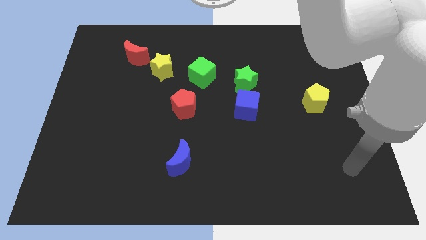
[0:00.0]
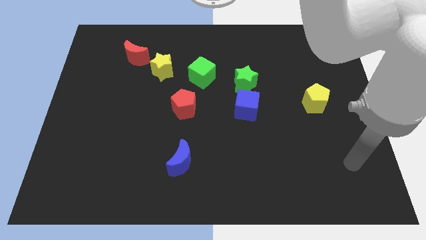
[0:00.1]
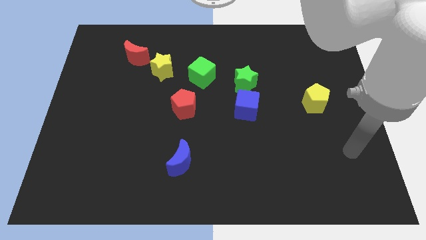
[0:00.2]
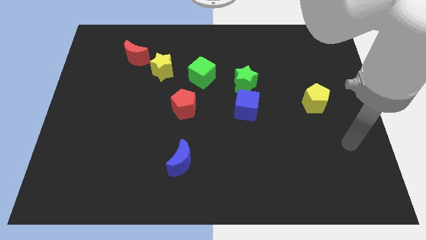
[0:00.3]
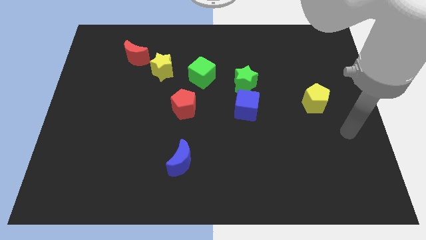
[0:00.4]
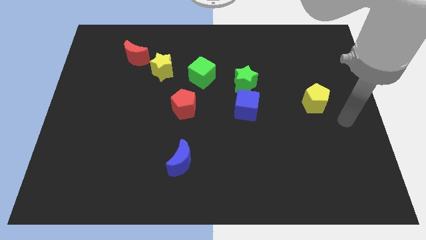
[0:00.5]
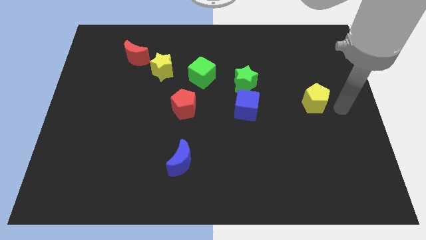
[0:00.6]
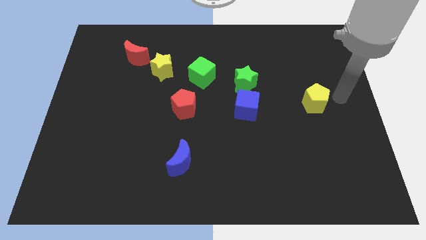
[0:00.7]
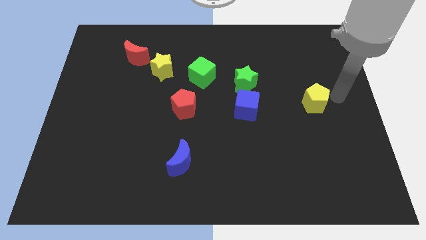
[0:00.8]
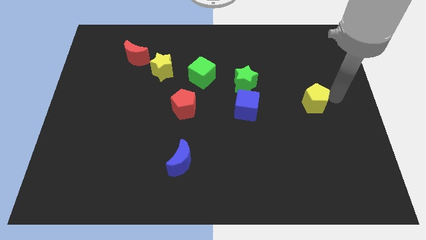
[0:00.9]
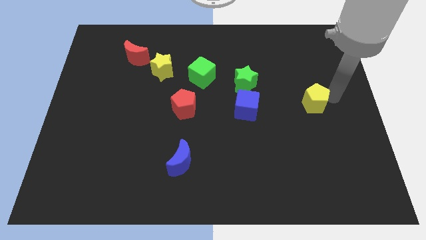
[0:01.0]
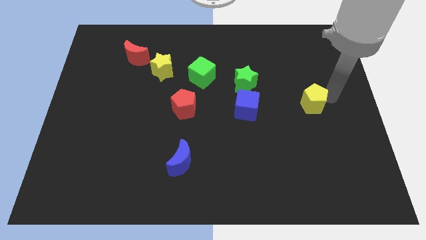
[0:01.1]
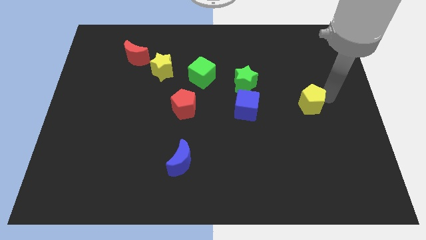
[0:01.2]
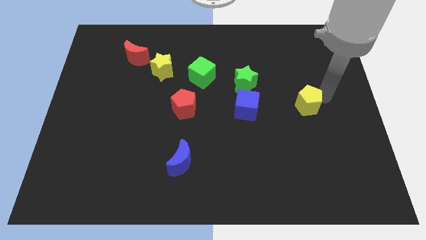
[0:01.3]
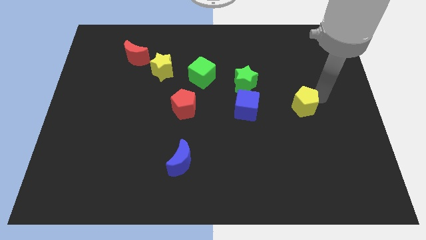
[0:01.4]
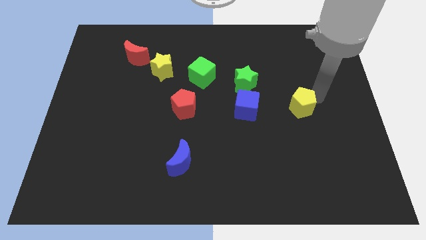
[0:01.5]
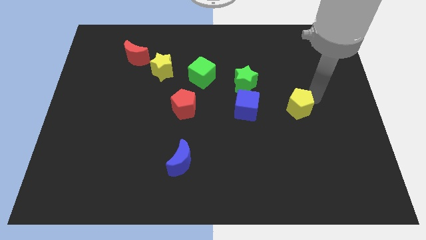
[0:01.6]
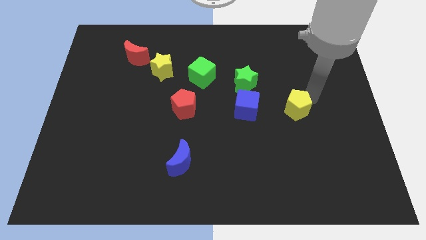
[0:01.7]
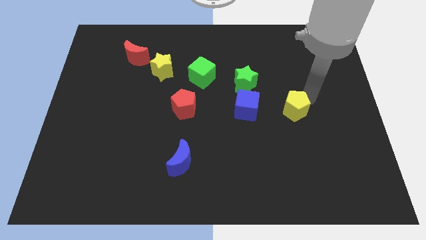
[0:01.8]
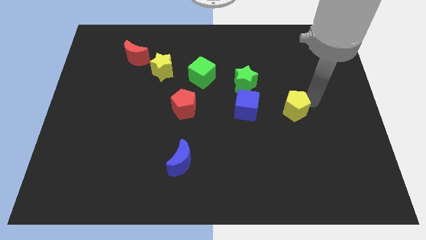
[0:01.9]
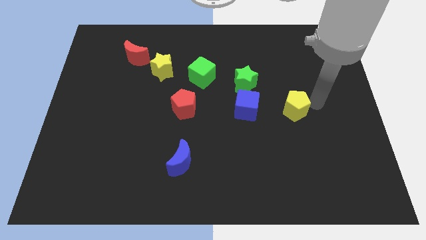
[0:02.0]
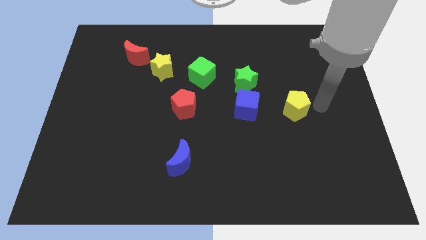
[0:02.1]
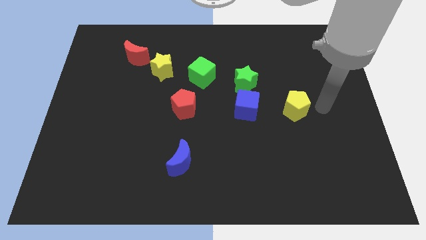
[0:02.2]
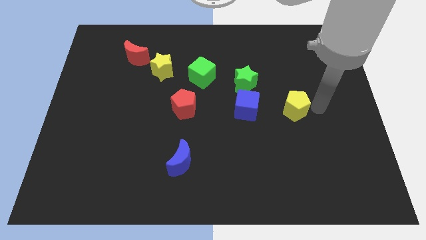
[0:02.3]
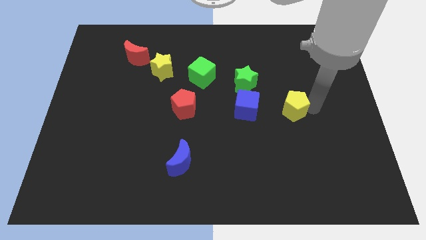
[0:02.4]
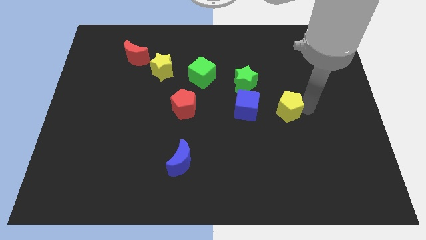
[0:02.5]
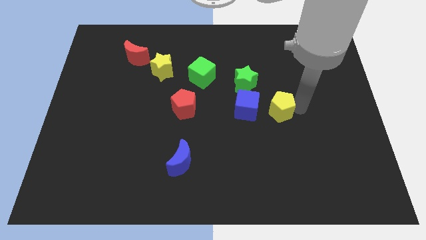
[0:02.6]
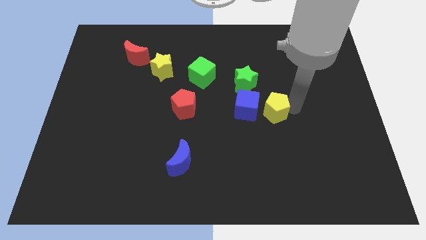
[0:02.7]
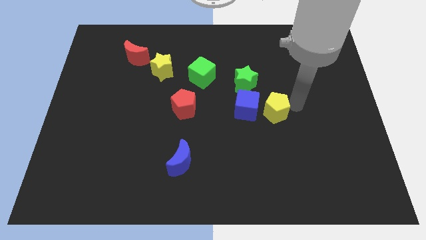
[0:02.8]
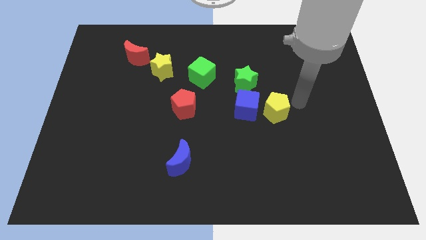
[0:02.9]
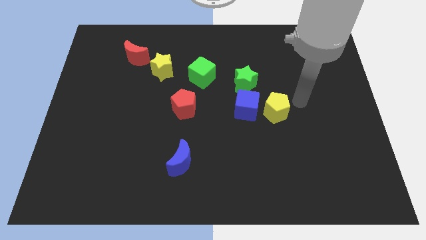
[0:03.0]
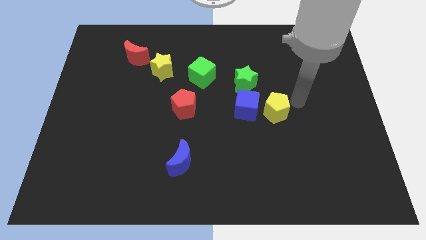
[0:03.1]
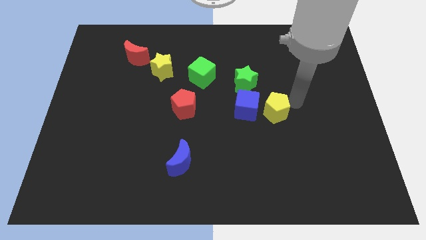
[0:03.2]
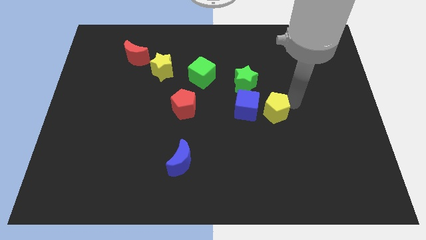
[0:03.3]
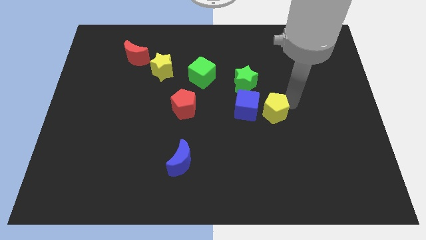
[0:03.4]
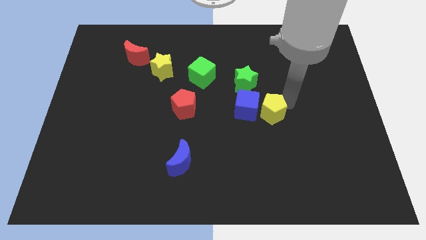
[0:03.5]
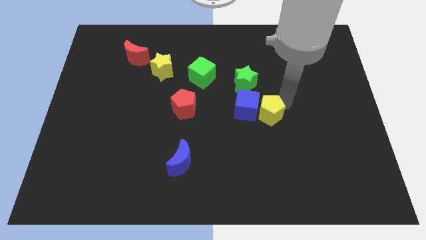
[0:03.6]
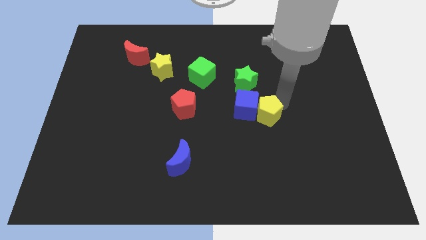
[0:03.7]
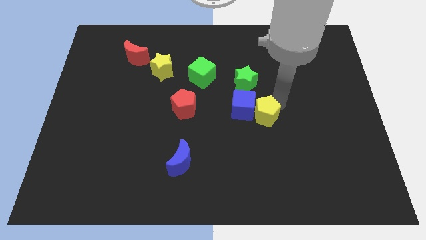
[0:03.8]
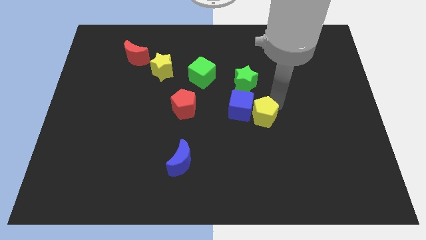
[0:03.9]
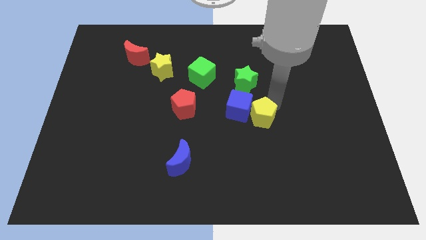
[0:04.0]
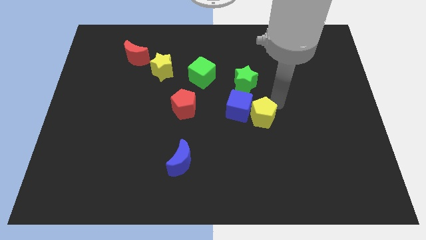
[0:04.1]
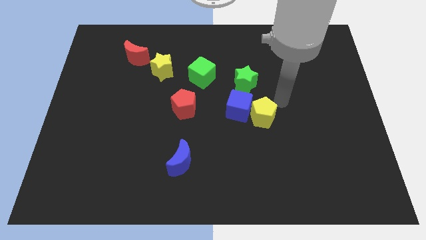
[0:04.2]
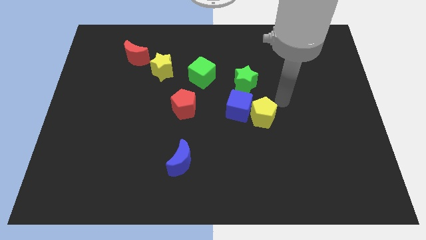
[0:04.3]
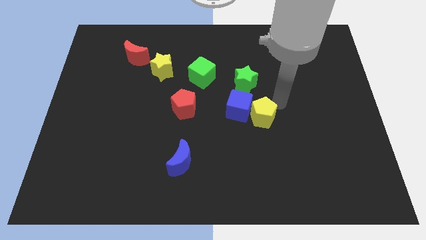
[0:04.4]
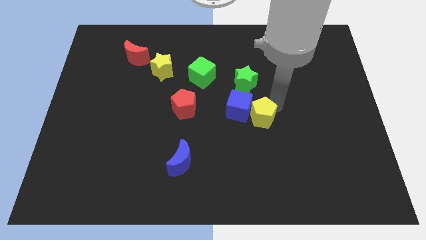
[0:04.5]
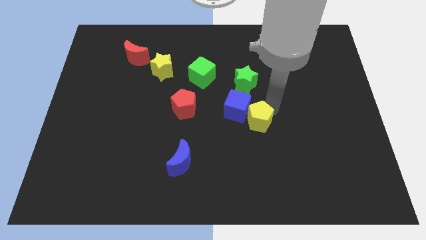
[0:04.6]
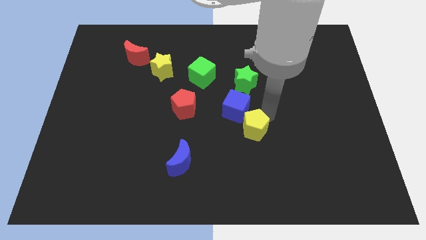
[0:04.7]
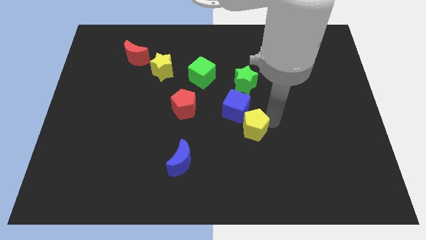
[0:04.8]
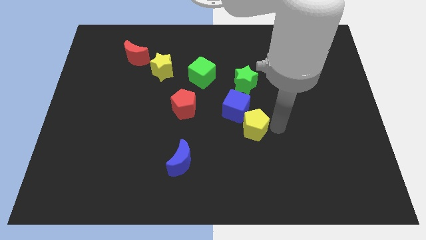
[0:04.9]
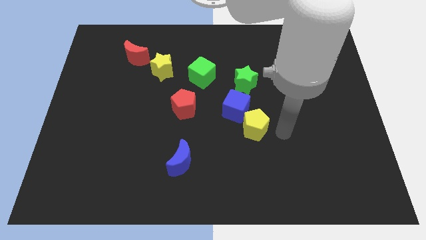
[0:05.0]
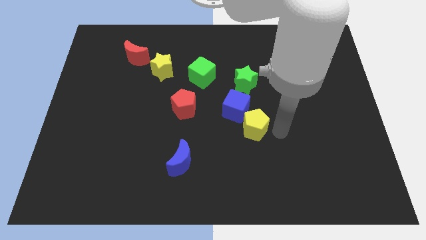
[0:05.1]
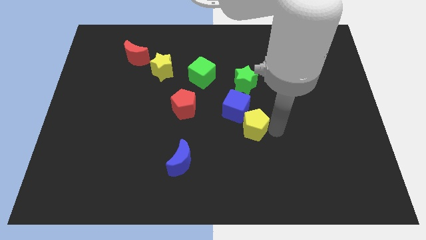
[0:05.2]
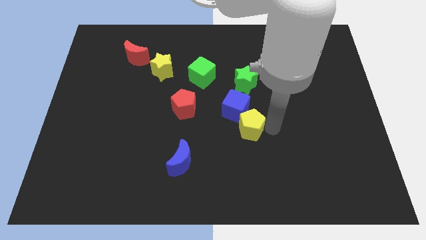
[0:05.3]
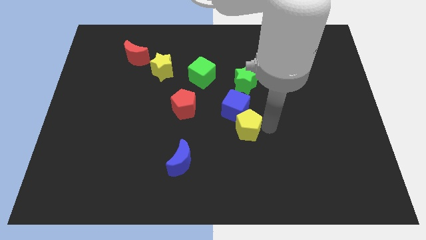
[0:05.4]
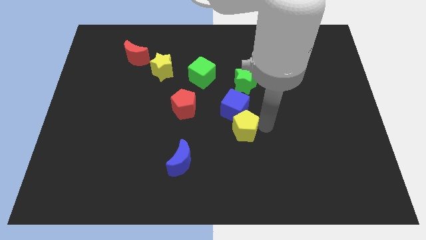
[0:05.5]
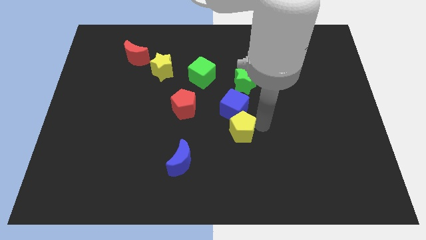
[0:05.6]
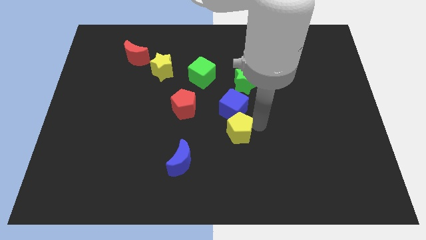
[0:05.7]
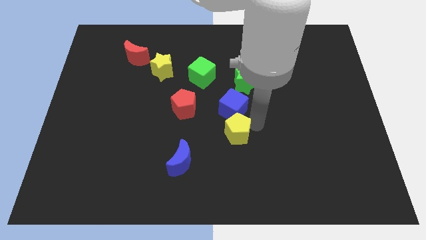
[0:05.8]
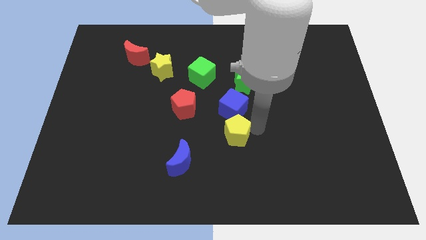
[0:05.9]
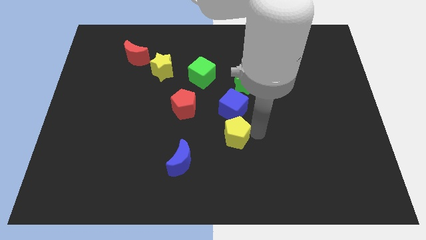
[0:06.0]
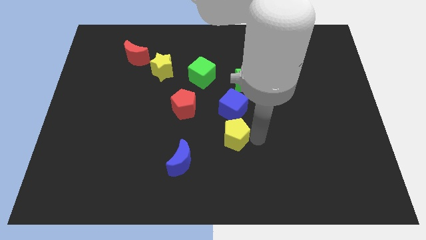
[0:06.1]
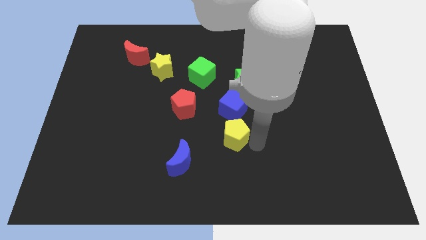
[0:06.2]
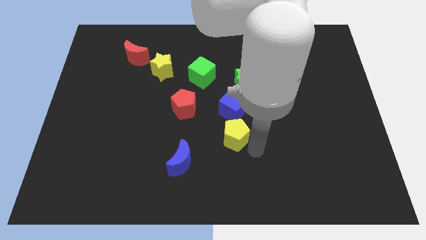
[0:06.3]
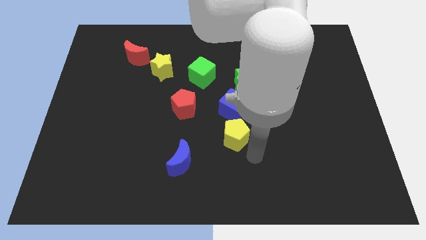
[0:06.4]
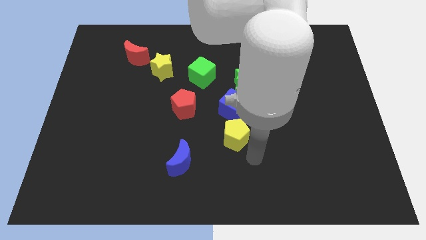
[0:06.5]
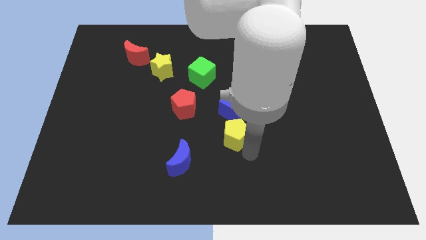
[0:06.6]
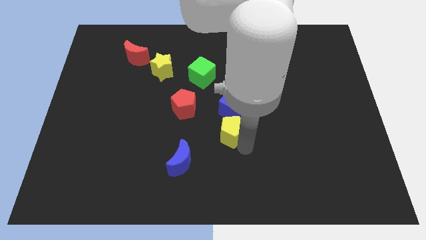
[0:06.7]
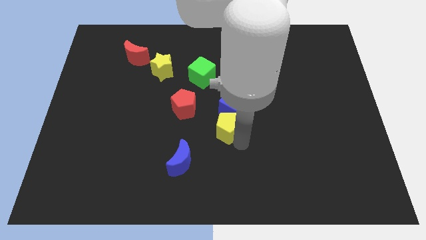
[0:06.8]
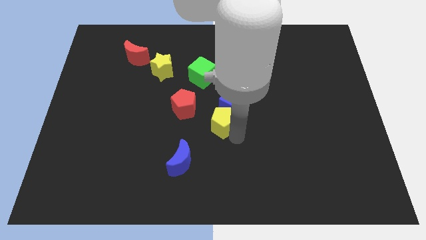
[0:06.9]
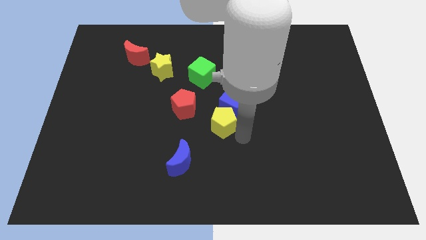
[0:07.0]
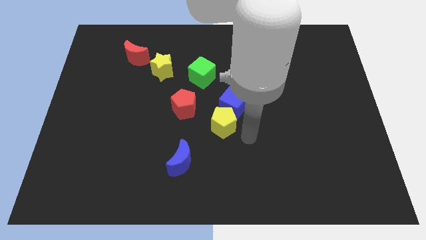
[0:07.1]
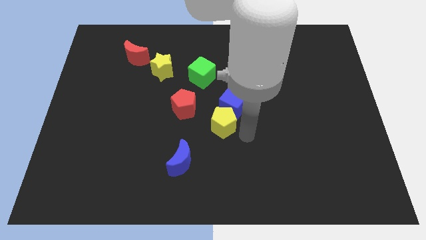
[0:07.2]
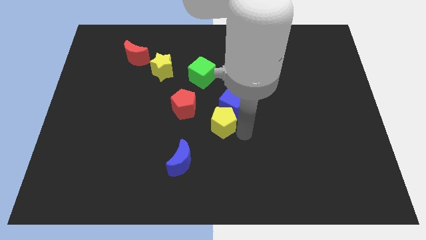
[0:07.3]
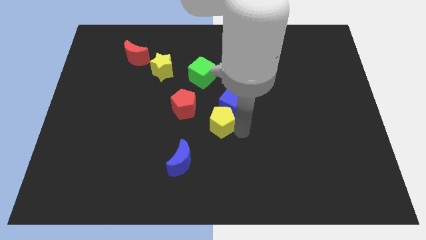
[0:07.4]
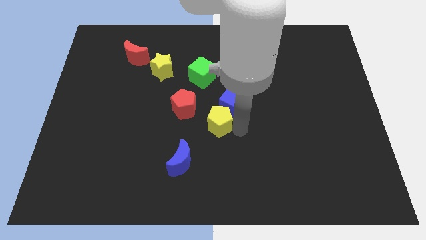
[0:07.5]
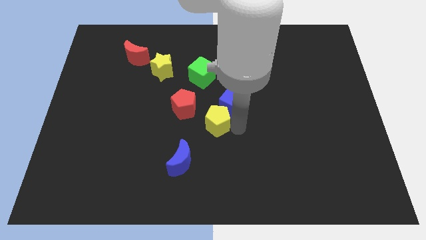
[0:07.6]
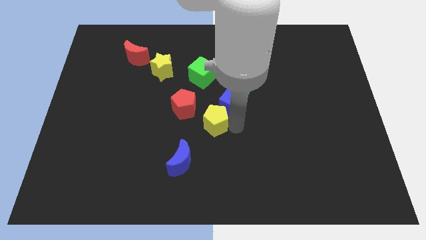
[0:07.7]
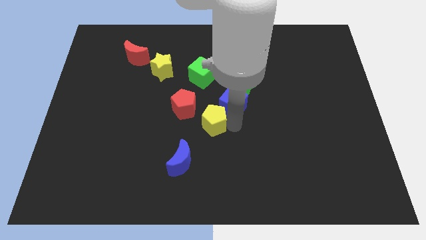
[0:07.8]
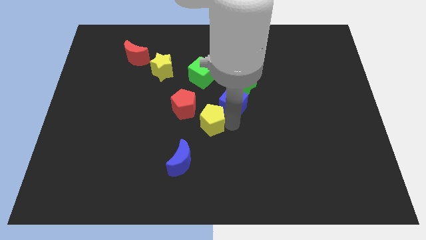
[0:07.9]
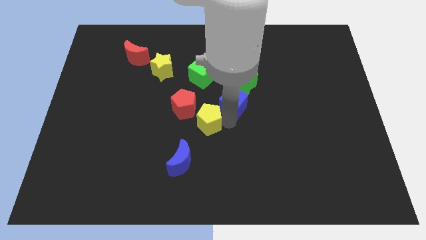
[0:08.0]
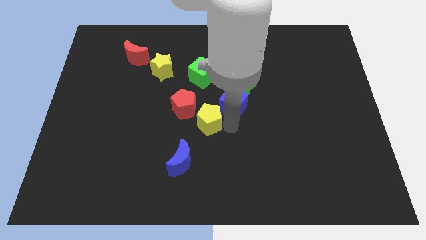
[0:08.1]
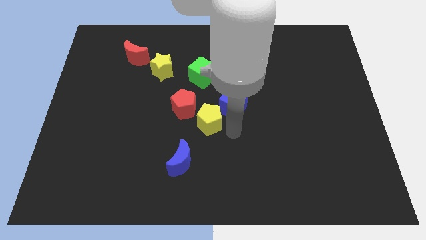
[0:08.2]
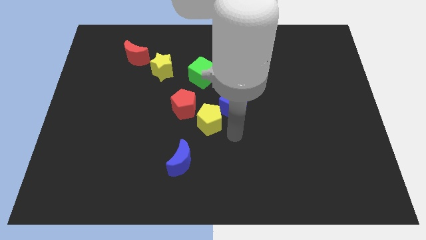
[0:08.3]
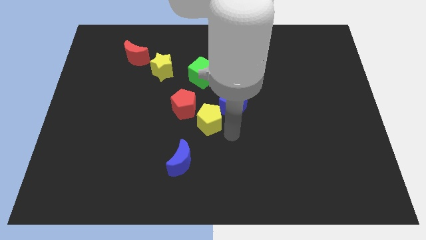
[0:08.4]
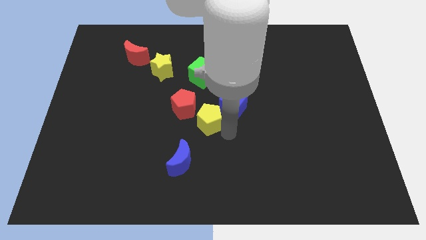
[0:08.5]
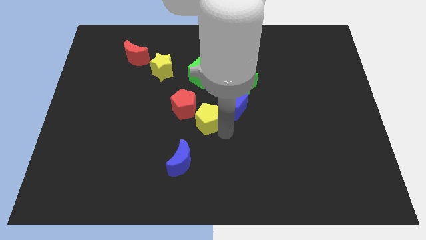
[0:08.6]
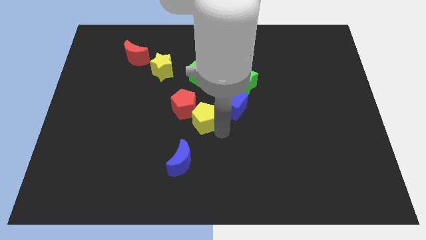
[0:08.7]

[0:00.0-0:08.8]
slide the yellow pentagon towards the red pentagon
